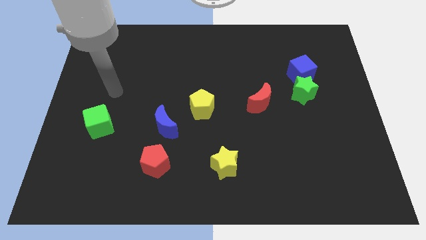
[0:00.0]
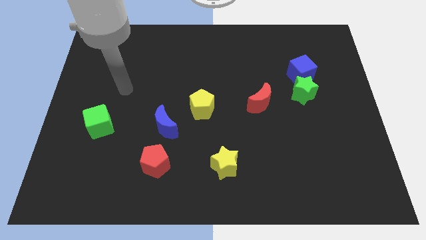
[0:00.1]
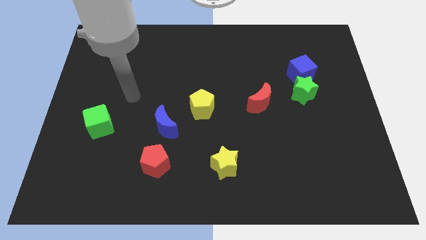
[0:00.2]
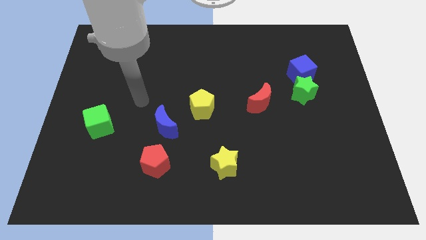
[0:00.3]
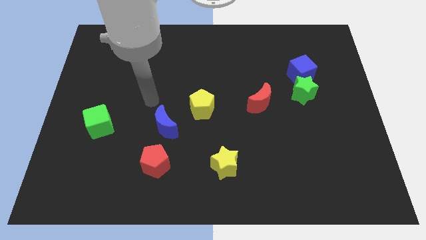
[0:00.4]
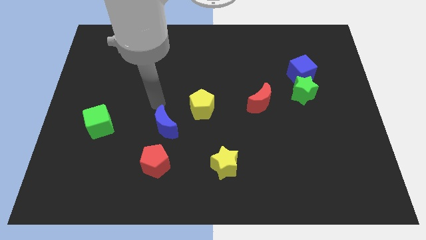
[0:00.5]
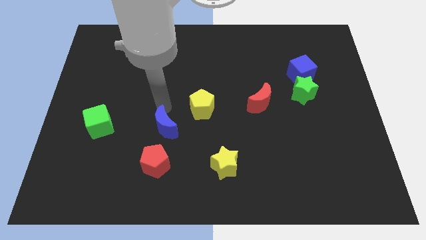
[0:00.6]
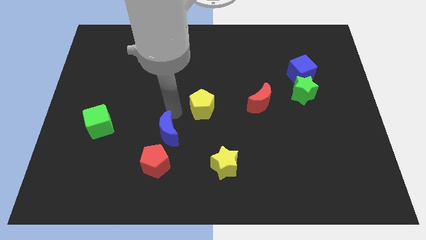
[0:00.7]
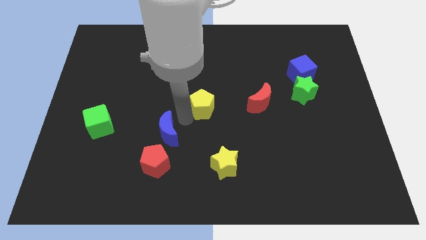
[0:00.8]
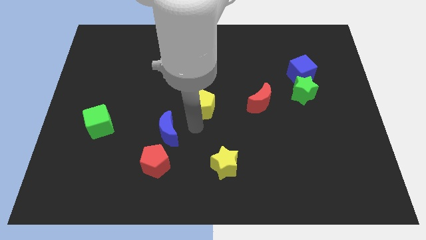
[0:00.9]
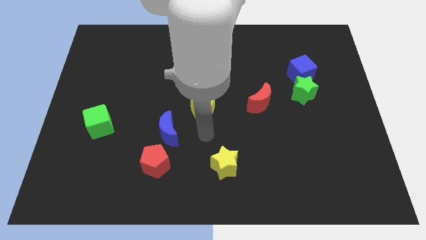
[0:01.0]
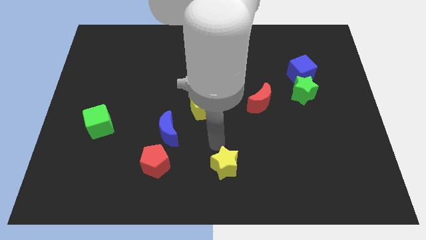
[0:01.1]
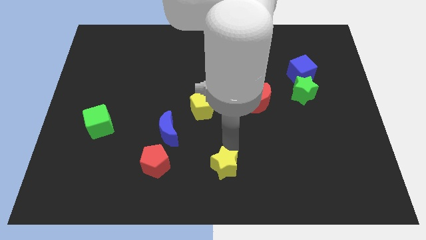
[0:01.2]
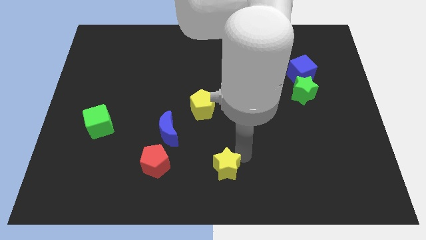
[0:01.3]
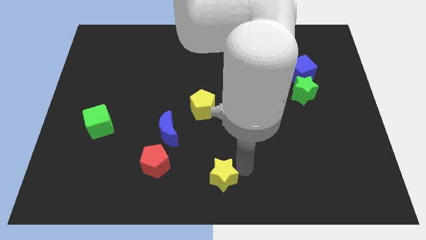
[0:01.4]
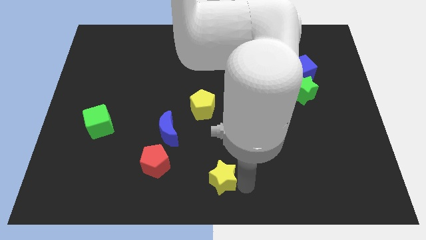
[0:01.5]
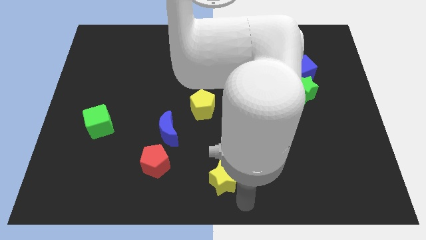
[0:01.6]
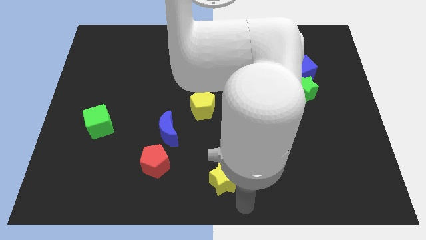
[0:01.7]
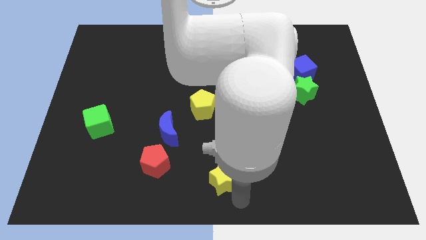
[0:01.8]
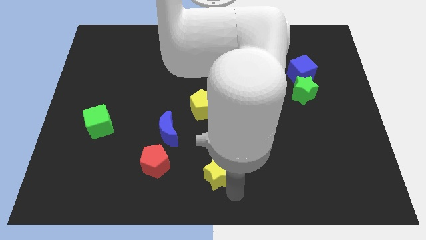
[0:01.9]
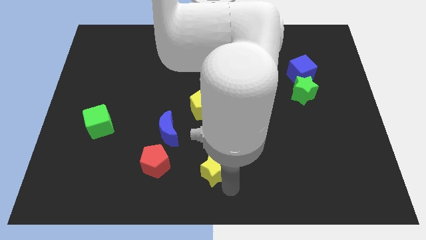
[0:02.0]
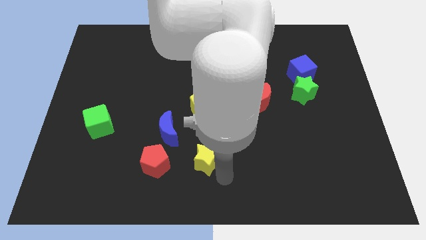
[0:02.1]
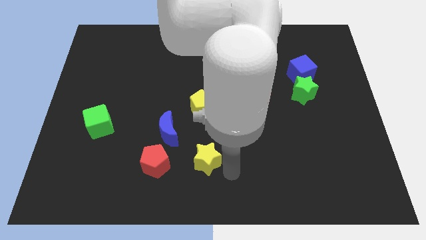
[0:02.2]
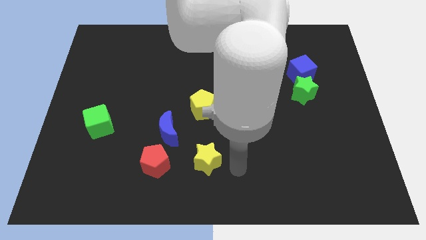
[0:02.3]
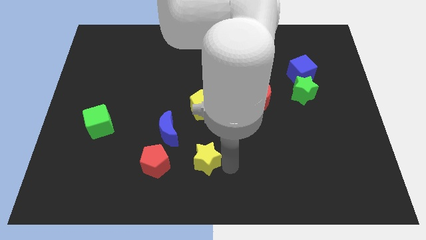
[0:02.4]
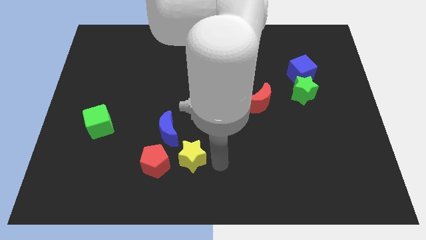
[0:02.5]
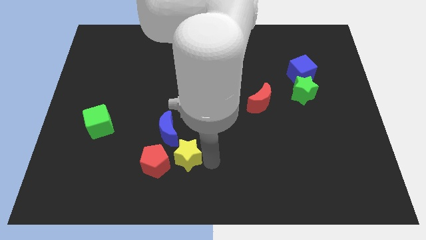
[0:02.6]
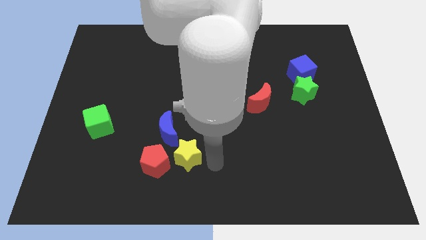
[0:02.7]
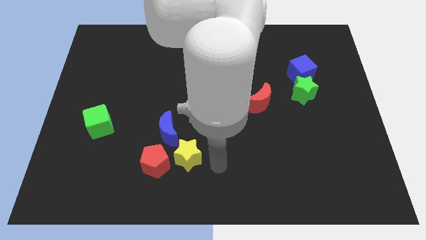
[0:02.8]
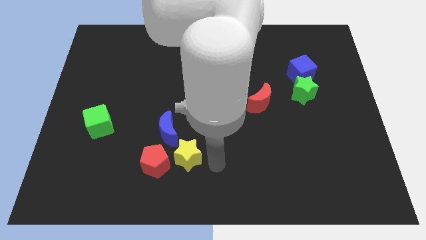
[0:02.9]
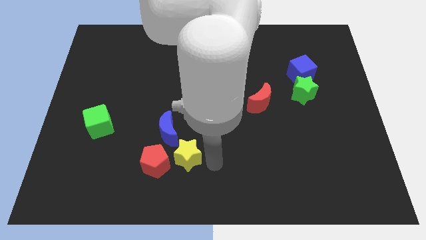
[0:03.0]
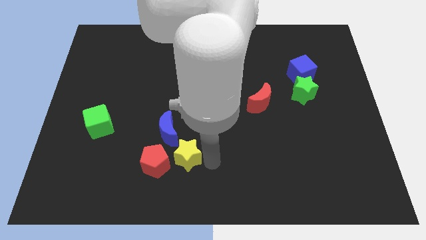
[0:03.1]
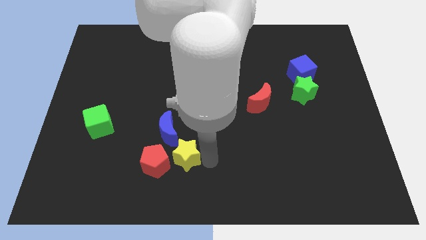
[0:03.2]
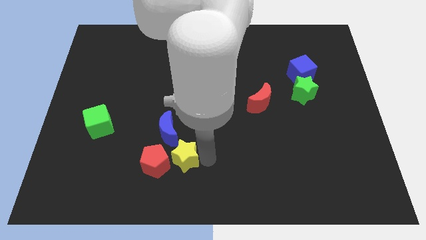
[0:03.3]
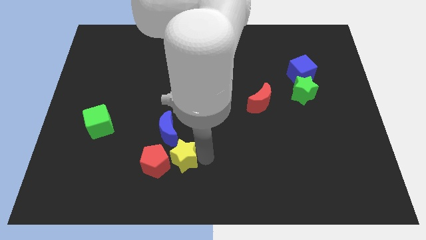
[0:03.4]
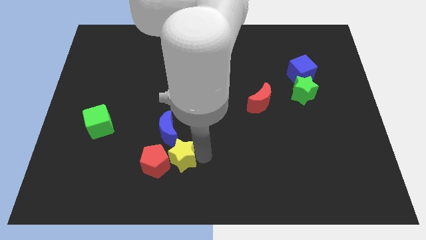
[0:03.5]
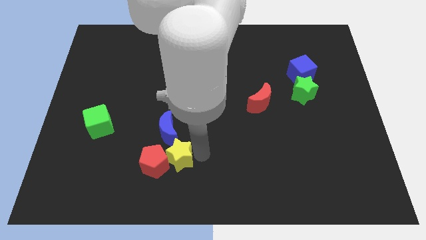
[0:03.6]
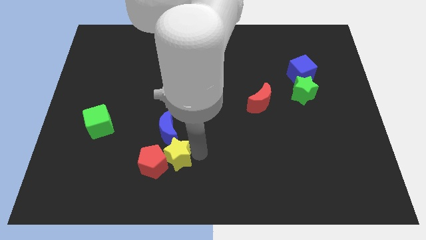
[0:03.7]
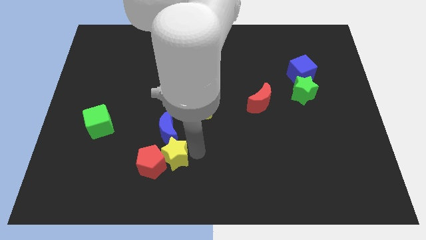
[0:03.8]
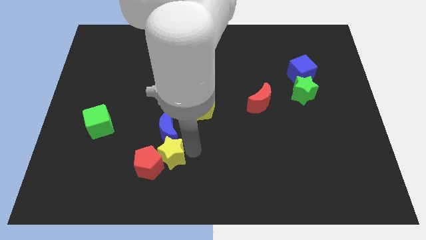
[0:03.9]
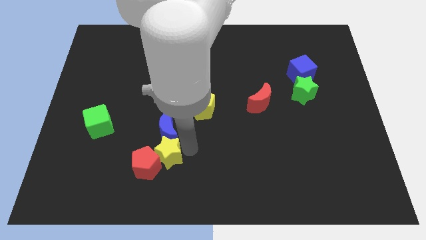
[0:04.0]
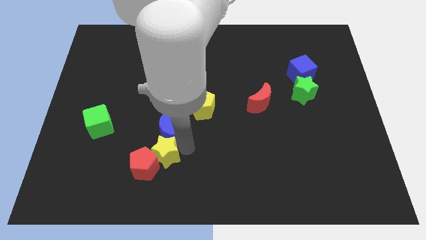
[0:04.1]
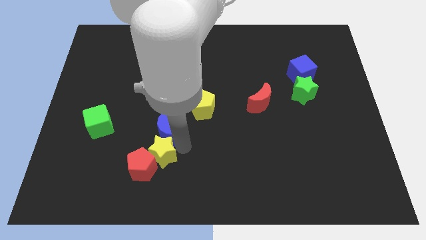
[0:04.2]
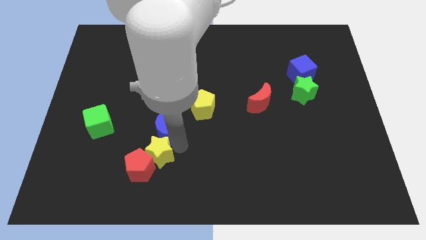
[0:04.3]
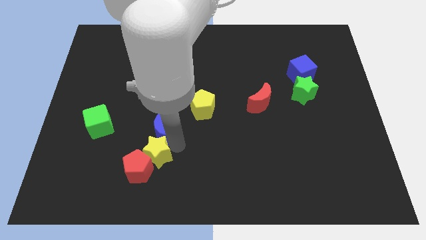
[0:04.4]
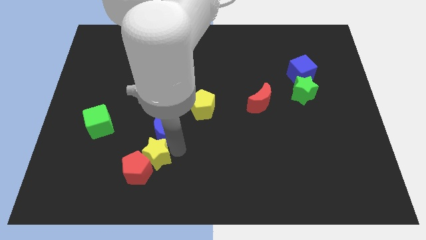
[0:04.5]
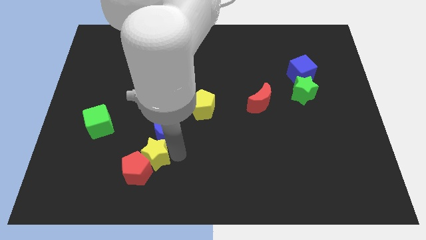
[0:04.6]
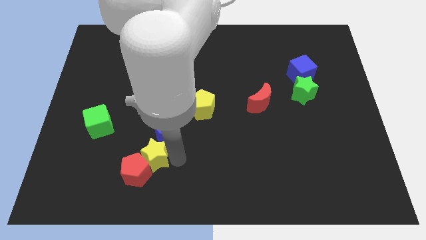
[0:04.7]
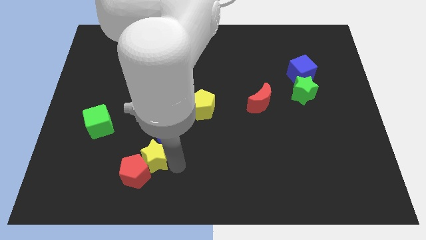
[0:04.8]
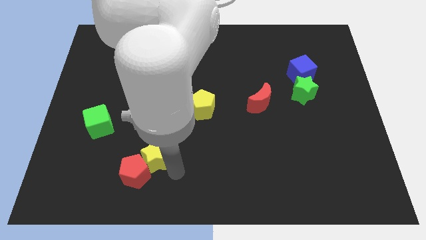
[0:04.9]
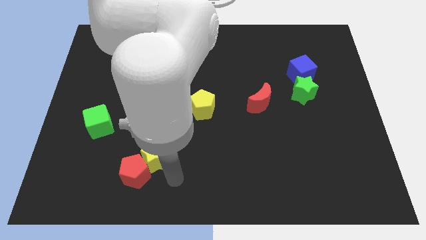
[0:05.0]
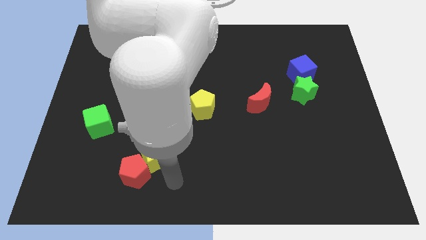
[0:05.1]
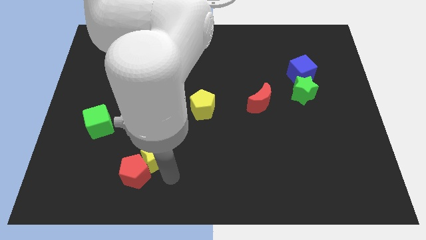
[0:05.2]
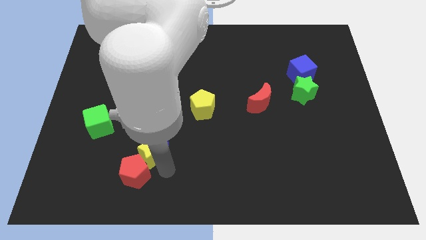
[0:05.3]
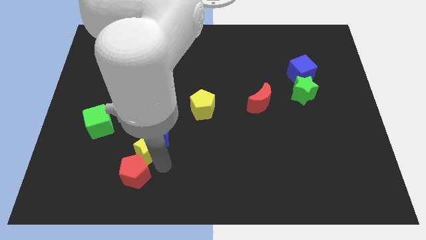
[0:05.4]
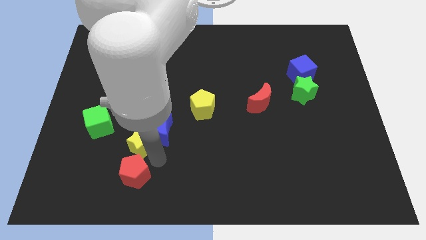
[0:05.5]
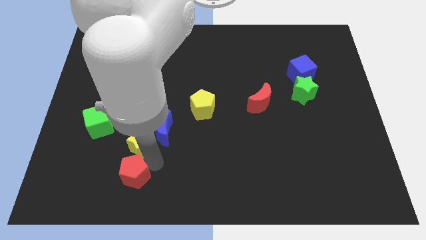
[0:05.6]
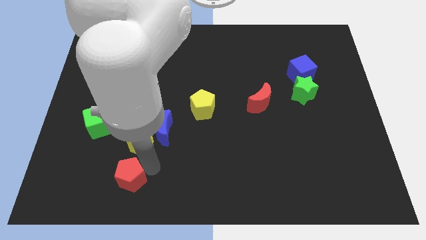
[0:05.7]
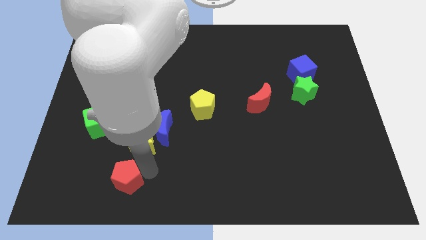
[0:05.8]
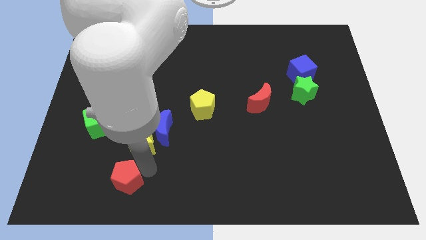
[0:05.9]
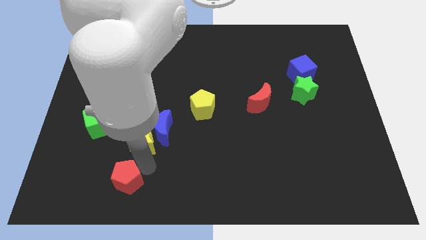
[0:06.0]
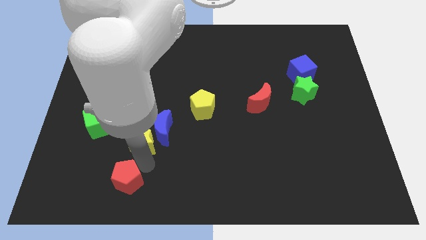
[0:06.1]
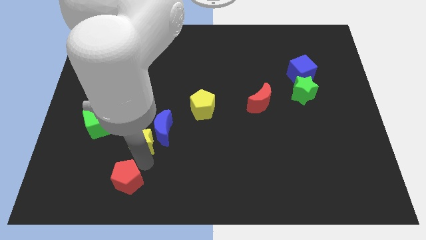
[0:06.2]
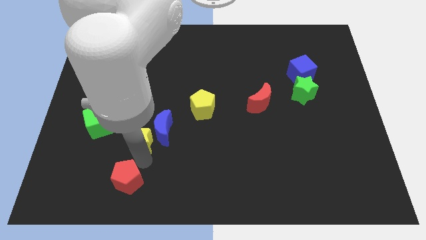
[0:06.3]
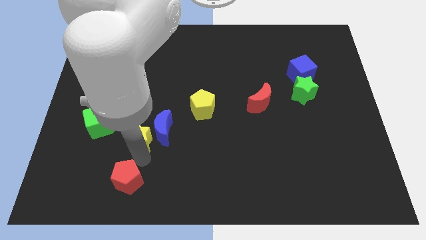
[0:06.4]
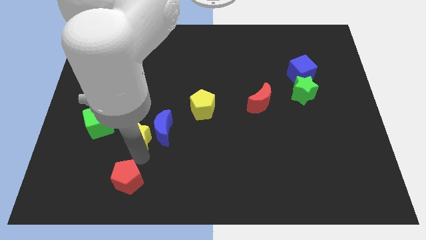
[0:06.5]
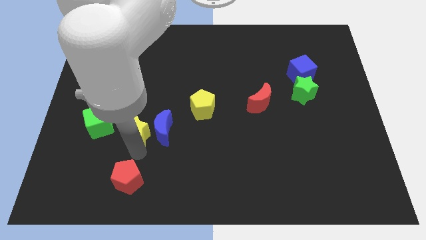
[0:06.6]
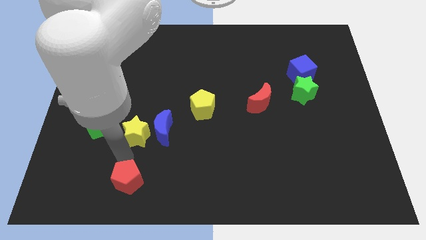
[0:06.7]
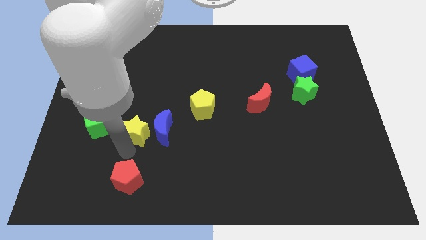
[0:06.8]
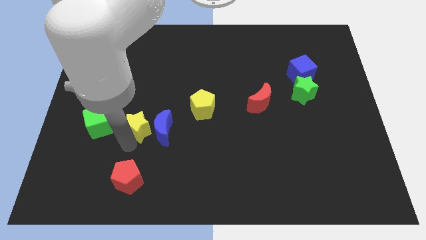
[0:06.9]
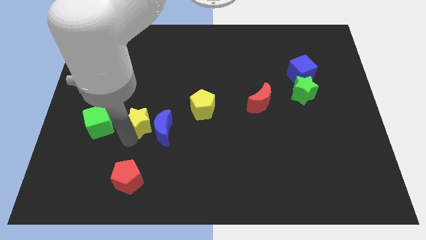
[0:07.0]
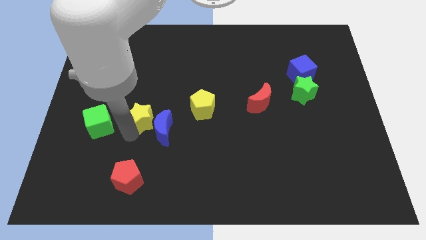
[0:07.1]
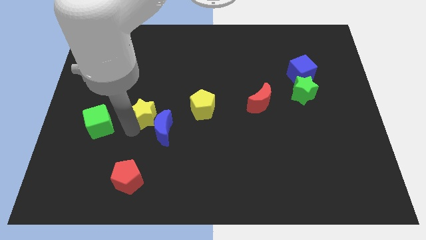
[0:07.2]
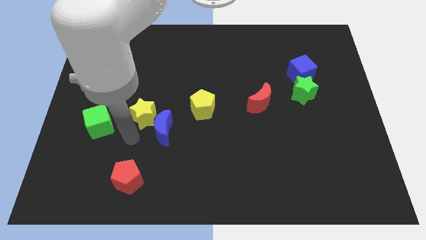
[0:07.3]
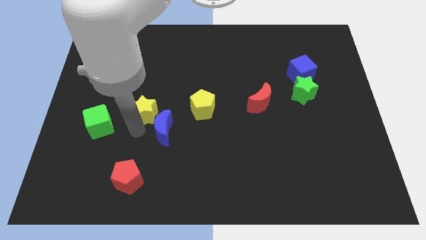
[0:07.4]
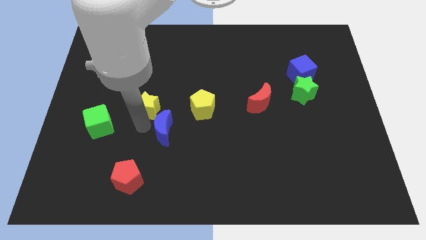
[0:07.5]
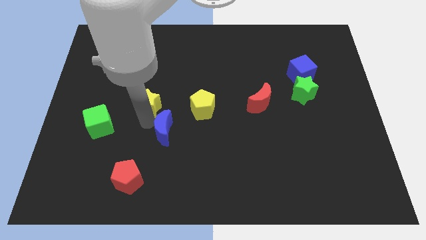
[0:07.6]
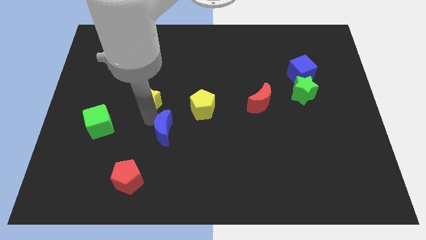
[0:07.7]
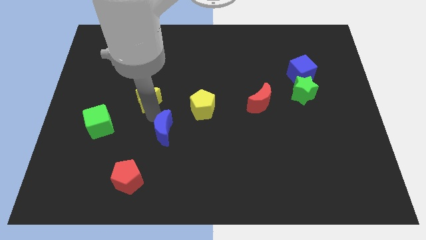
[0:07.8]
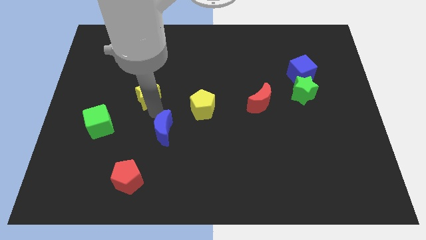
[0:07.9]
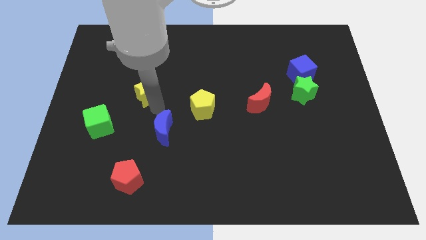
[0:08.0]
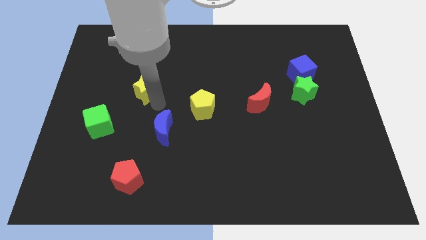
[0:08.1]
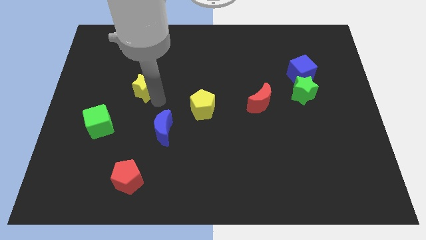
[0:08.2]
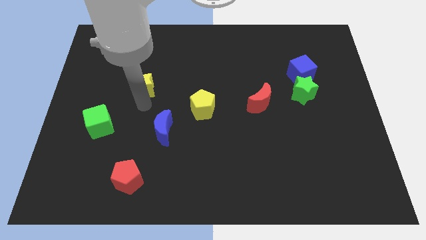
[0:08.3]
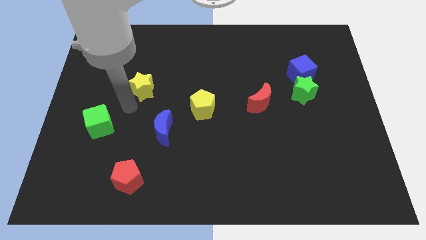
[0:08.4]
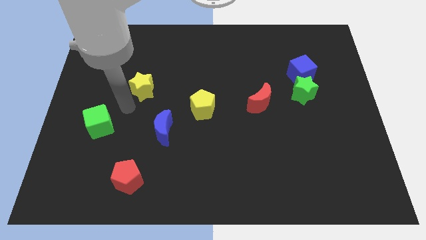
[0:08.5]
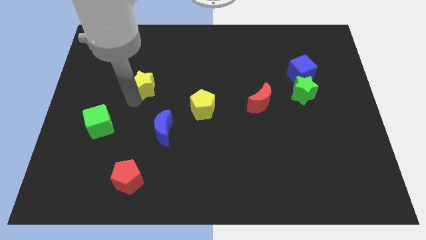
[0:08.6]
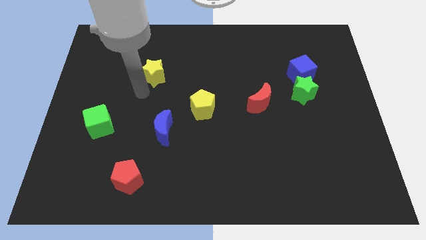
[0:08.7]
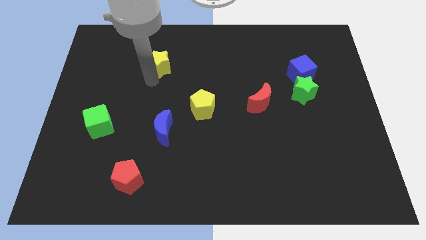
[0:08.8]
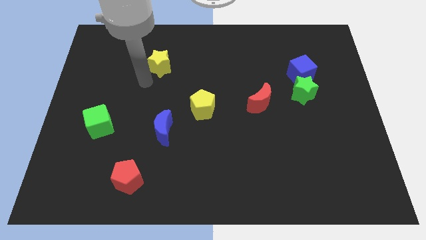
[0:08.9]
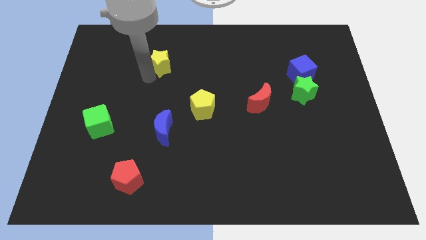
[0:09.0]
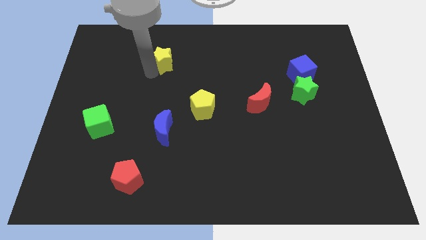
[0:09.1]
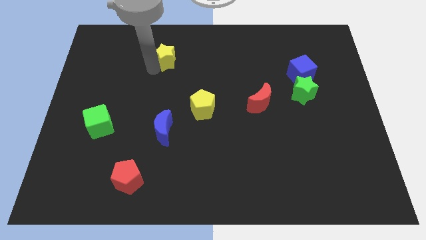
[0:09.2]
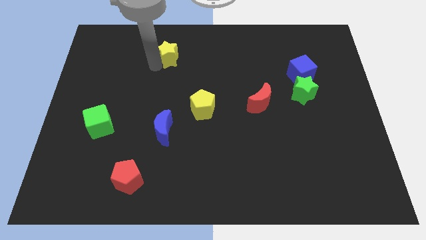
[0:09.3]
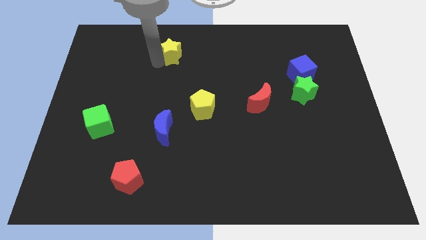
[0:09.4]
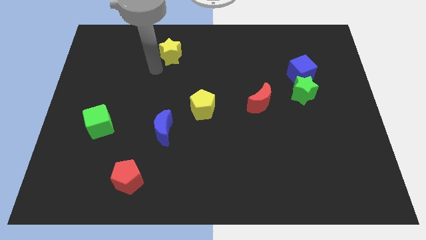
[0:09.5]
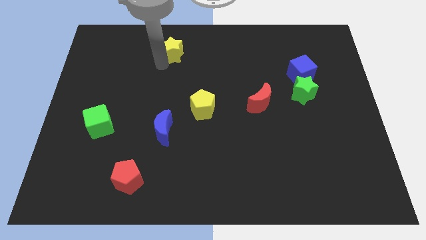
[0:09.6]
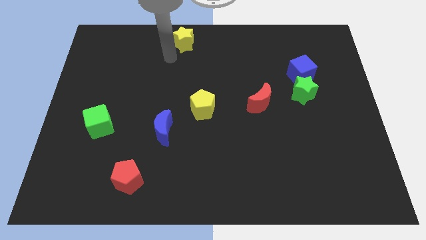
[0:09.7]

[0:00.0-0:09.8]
push the yellow star to the top side
